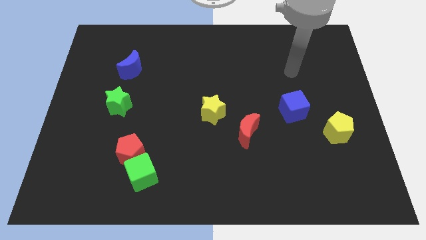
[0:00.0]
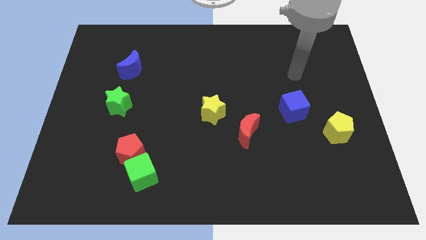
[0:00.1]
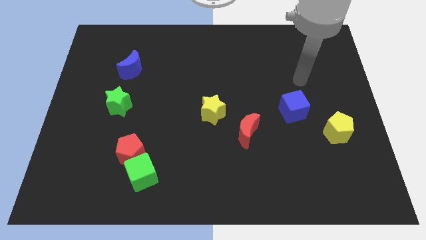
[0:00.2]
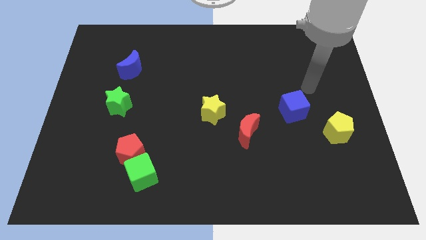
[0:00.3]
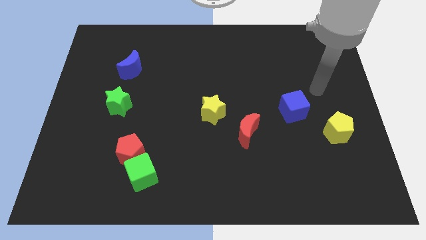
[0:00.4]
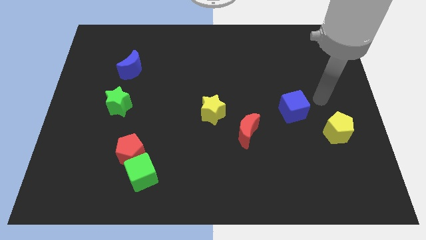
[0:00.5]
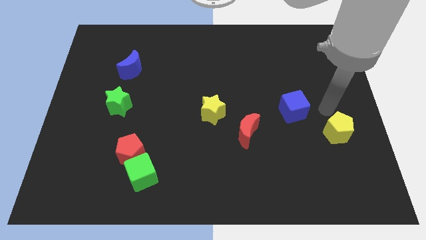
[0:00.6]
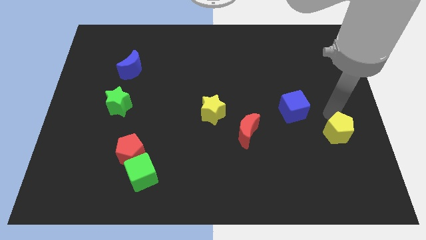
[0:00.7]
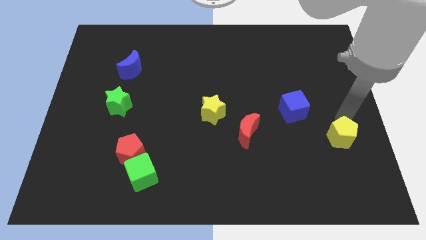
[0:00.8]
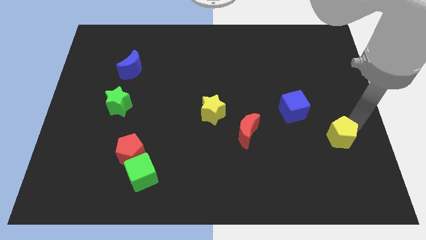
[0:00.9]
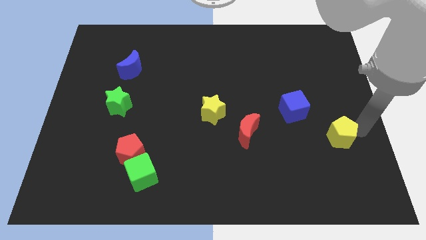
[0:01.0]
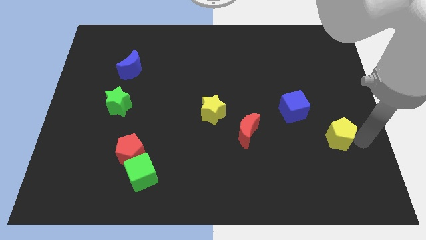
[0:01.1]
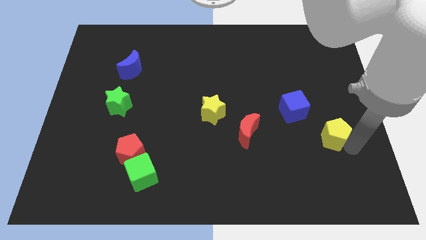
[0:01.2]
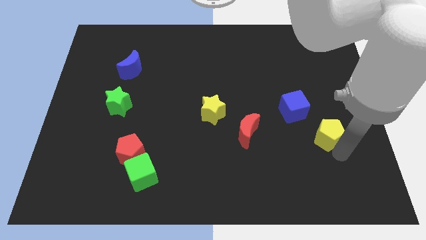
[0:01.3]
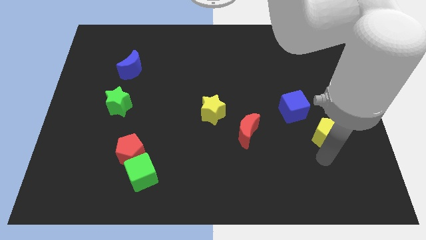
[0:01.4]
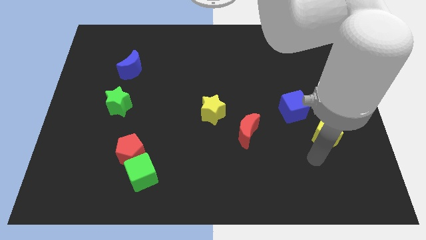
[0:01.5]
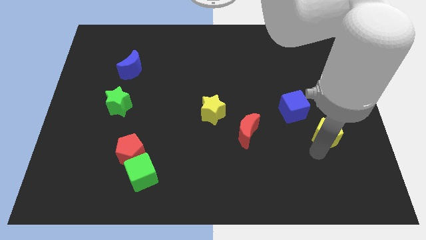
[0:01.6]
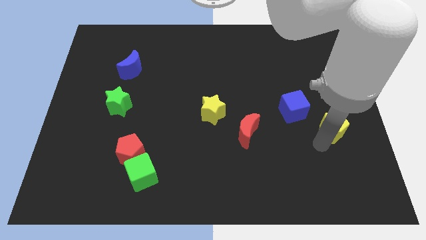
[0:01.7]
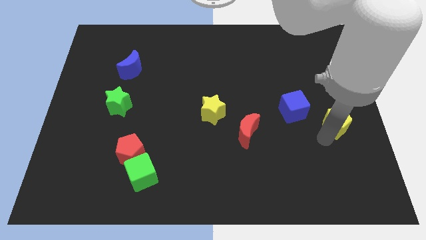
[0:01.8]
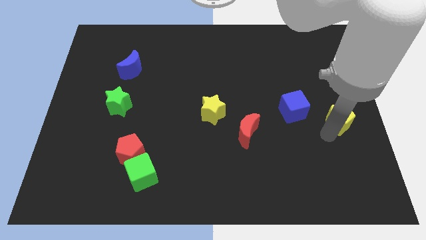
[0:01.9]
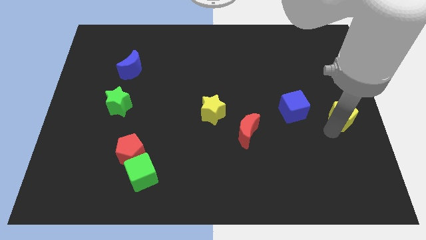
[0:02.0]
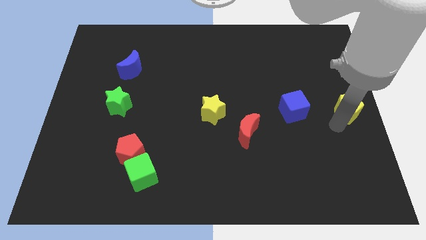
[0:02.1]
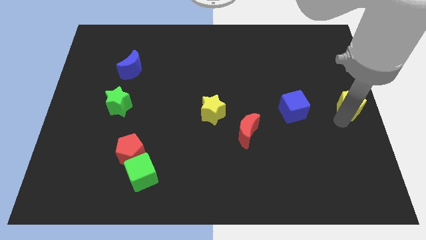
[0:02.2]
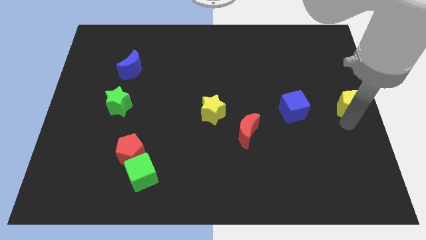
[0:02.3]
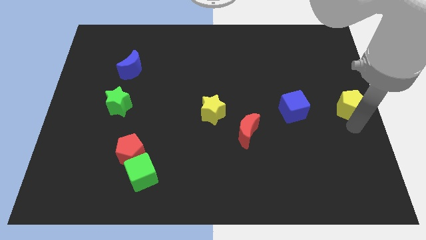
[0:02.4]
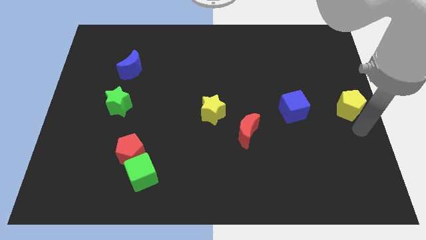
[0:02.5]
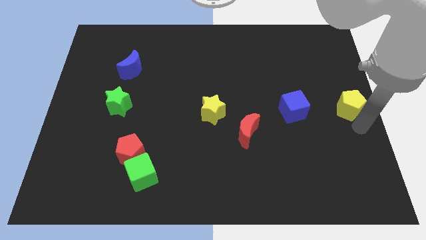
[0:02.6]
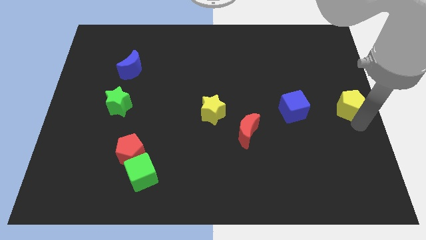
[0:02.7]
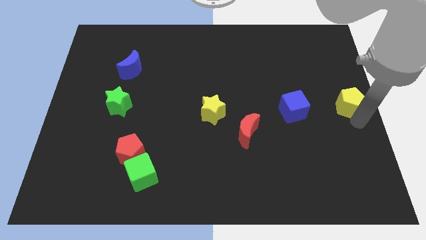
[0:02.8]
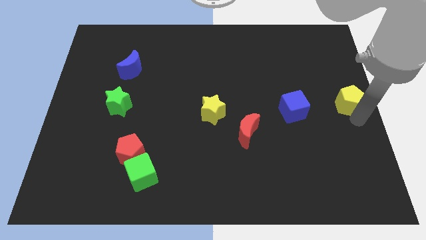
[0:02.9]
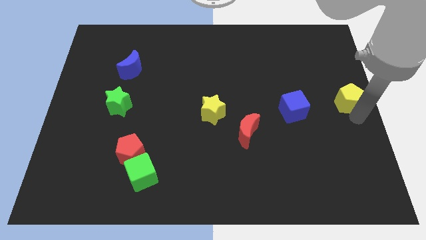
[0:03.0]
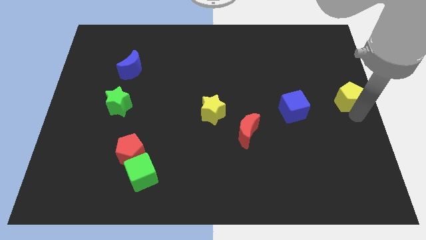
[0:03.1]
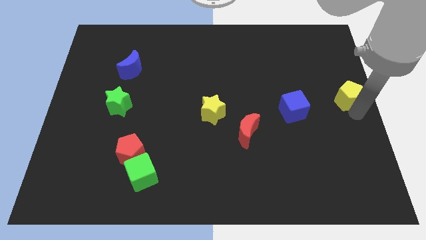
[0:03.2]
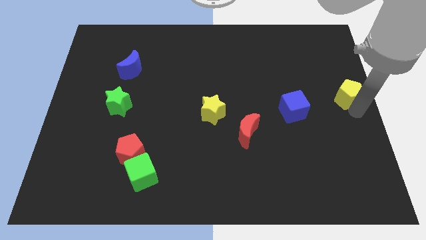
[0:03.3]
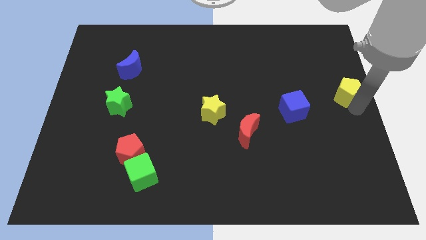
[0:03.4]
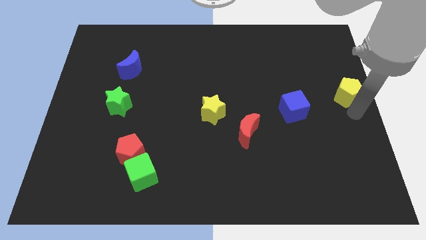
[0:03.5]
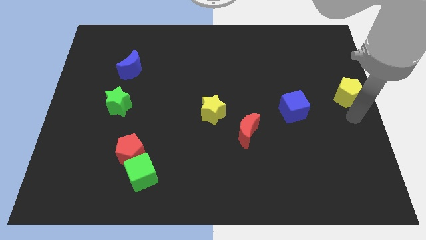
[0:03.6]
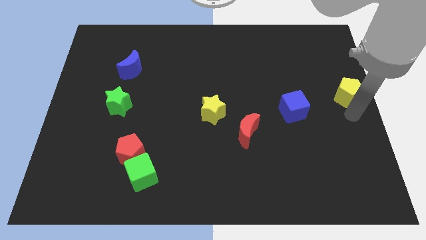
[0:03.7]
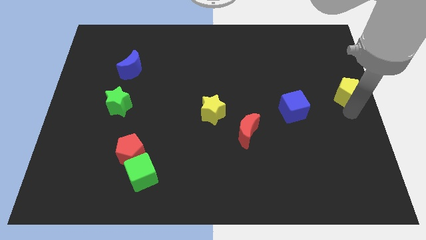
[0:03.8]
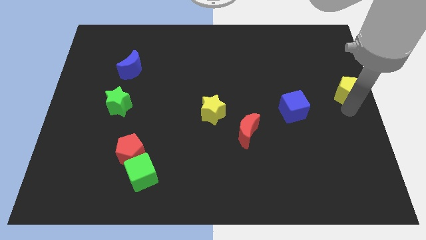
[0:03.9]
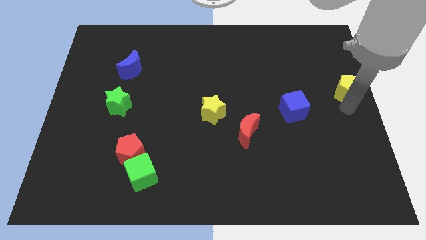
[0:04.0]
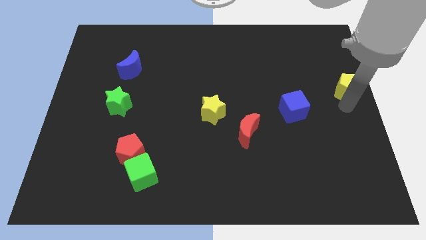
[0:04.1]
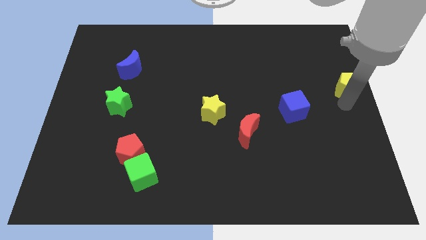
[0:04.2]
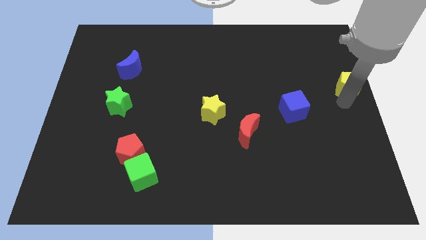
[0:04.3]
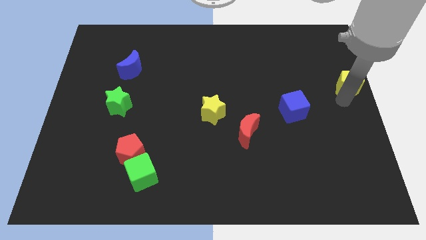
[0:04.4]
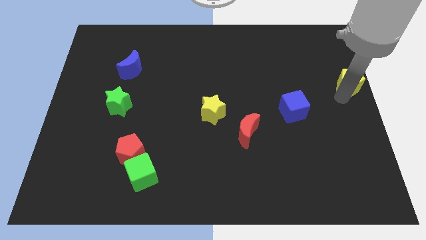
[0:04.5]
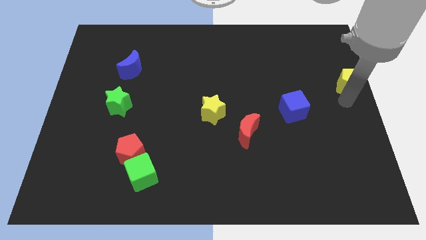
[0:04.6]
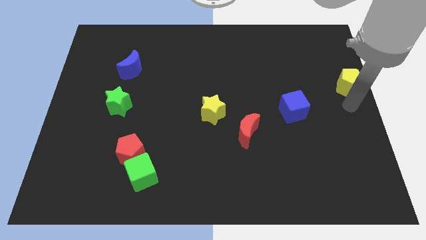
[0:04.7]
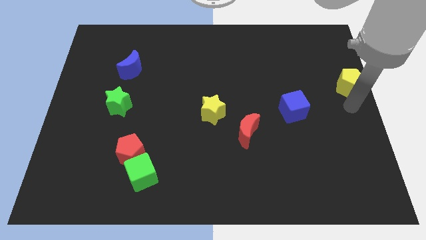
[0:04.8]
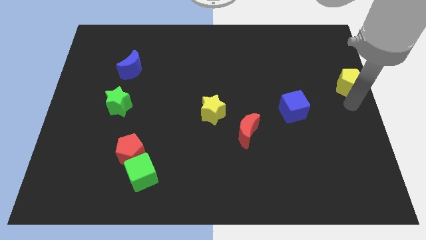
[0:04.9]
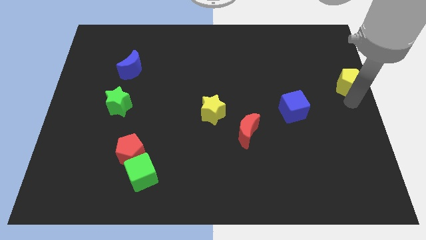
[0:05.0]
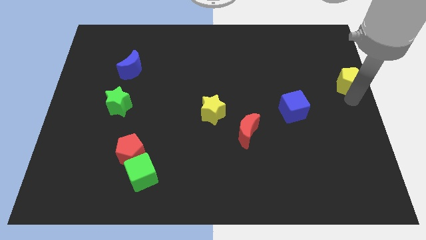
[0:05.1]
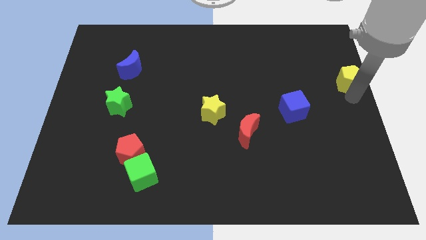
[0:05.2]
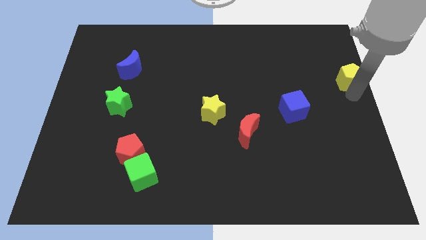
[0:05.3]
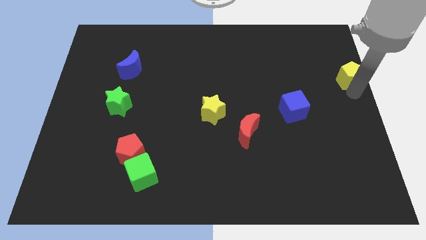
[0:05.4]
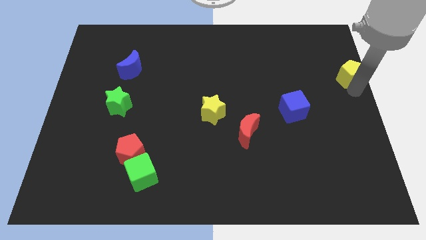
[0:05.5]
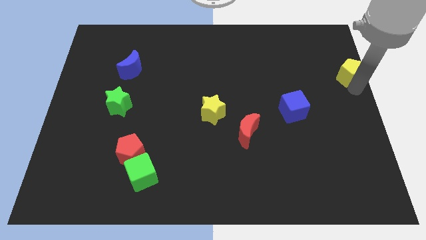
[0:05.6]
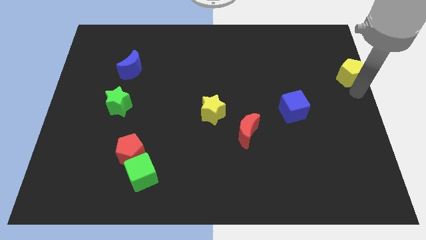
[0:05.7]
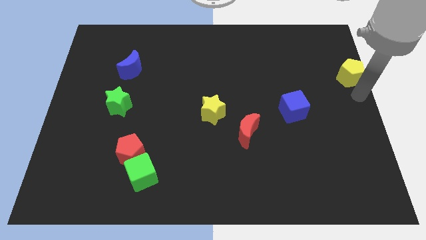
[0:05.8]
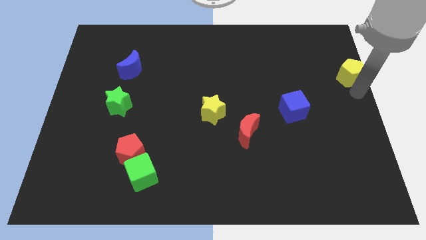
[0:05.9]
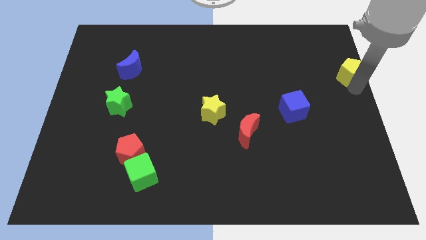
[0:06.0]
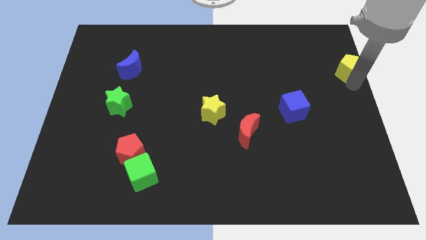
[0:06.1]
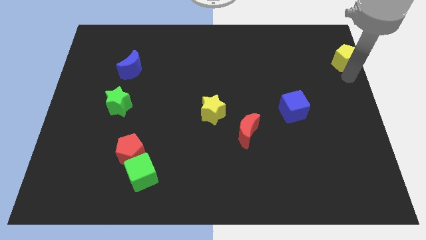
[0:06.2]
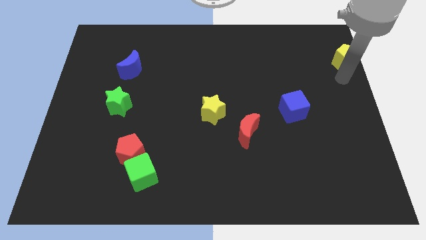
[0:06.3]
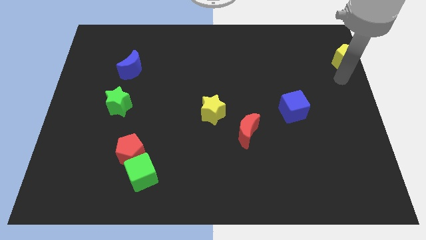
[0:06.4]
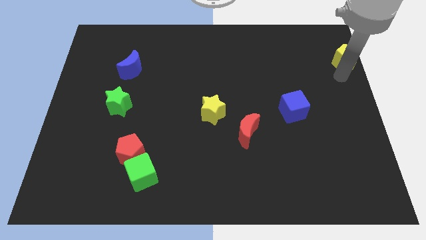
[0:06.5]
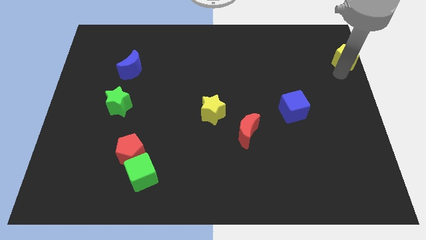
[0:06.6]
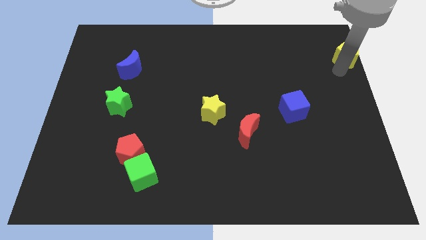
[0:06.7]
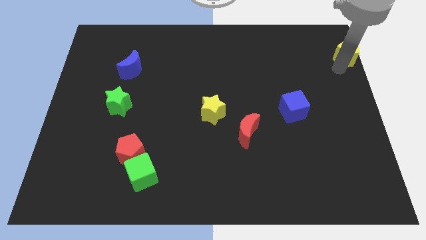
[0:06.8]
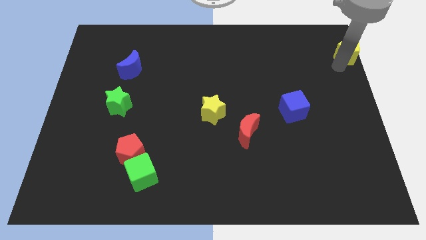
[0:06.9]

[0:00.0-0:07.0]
slide the yellow pentagon to the top right of the board
